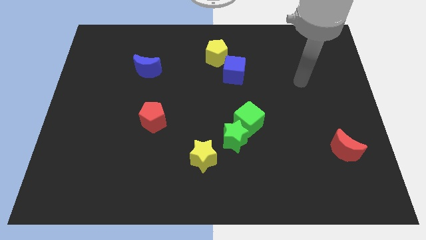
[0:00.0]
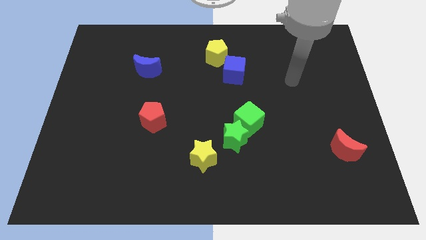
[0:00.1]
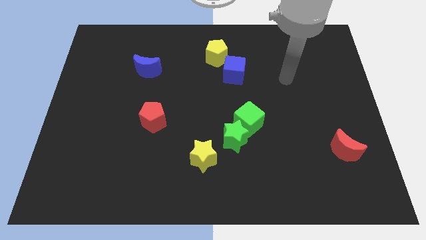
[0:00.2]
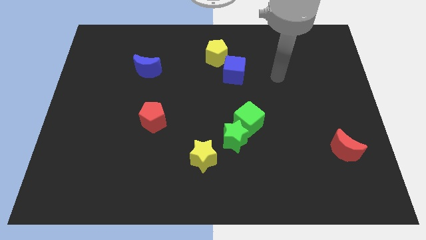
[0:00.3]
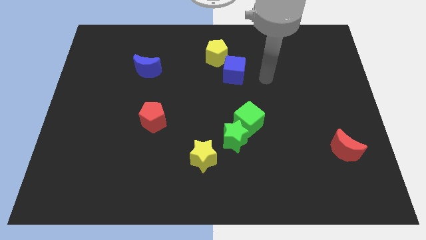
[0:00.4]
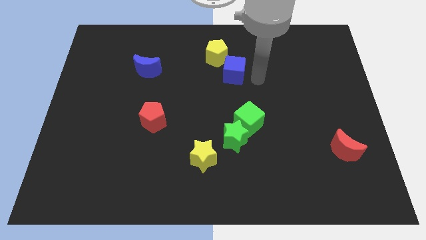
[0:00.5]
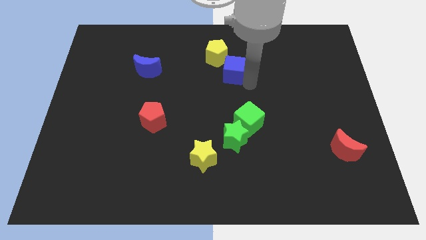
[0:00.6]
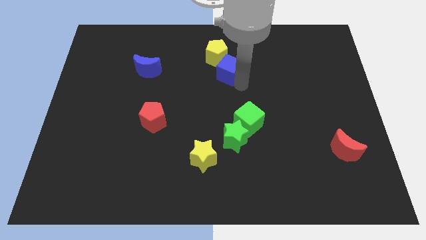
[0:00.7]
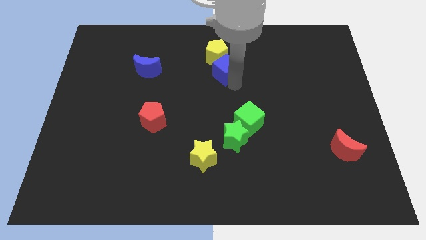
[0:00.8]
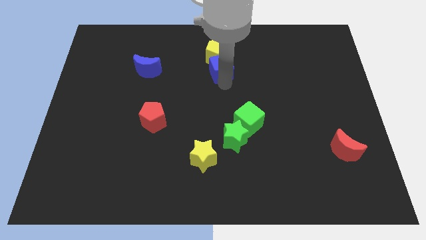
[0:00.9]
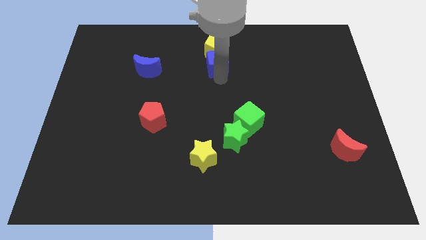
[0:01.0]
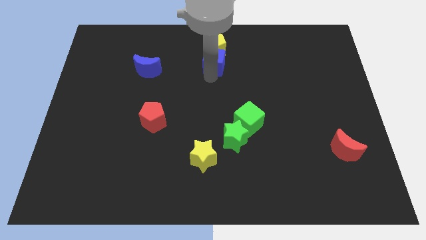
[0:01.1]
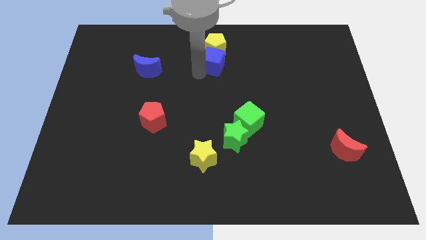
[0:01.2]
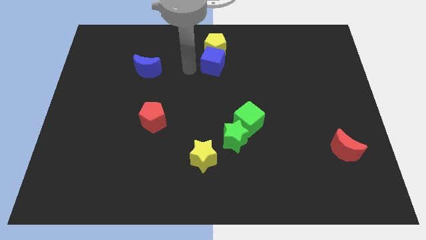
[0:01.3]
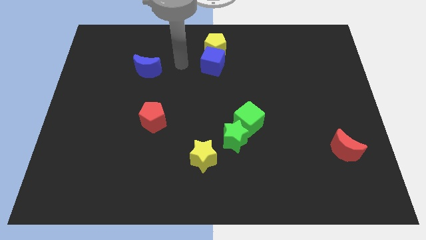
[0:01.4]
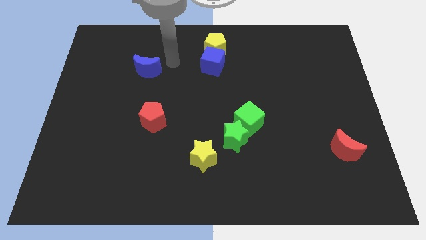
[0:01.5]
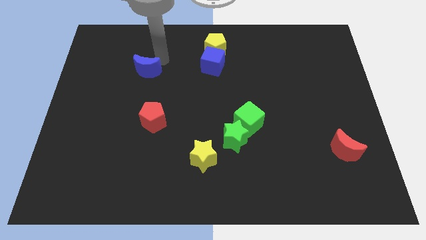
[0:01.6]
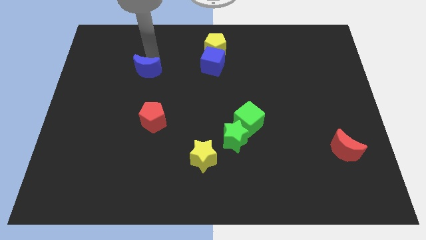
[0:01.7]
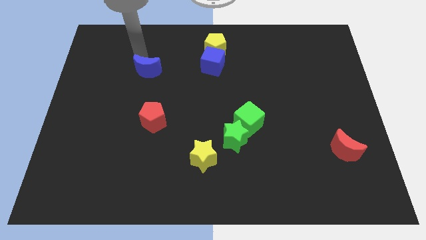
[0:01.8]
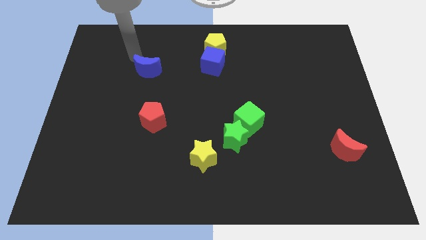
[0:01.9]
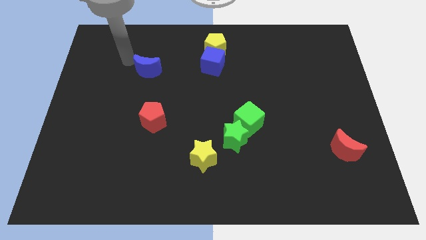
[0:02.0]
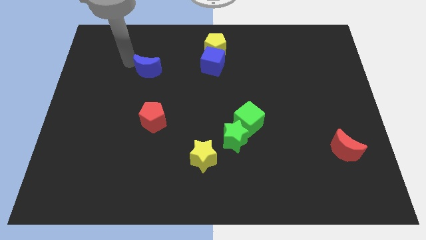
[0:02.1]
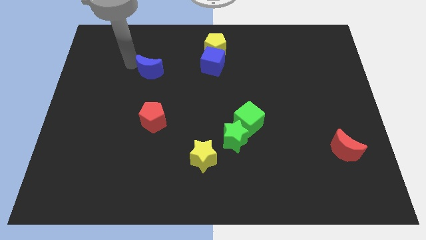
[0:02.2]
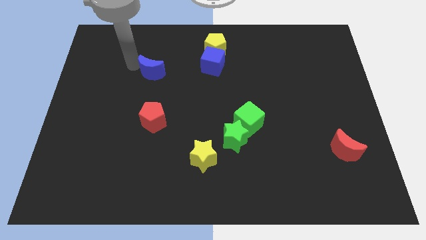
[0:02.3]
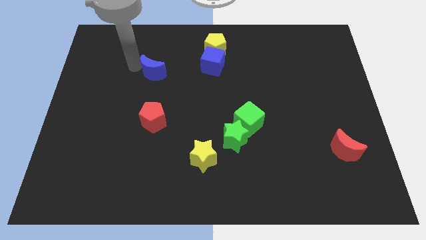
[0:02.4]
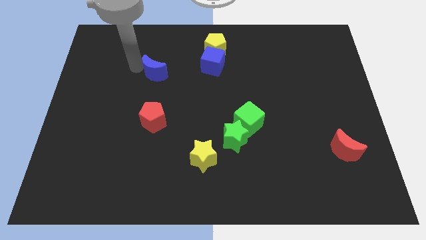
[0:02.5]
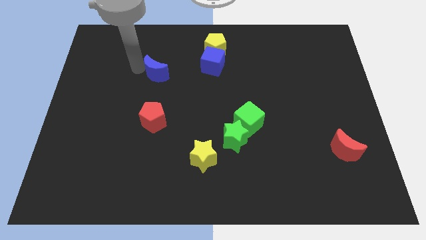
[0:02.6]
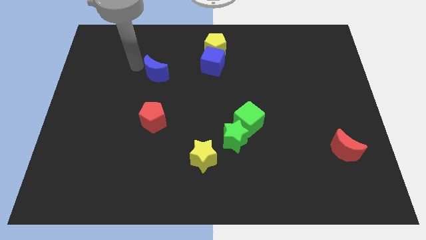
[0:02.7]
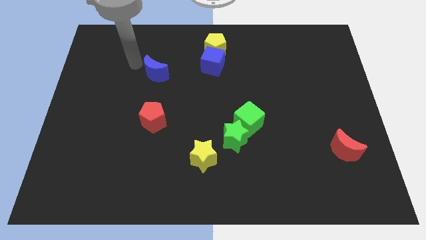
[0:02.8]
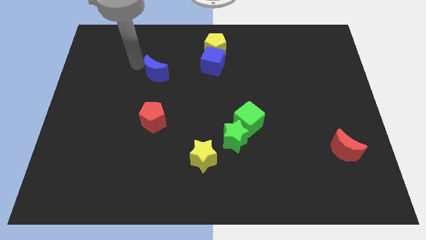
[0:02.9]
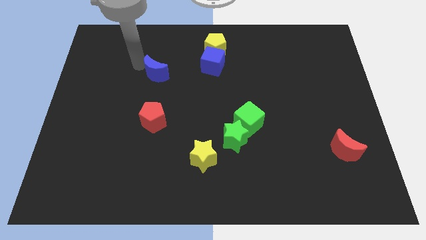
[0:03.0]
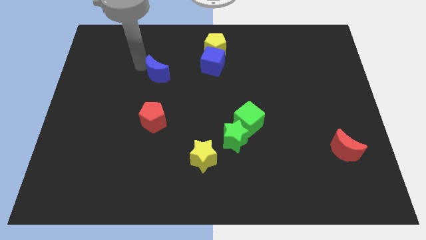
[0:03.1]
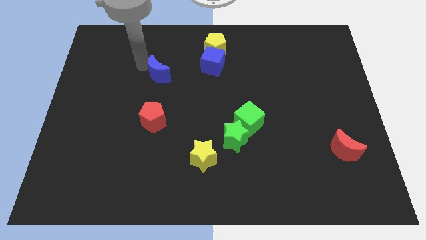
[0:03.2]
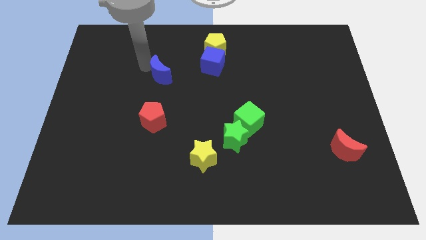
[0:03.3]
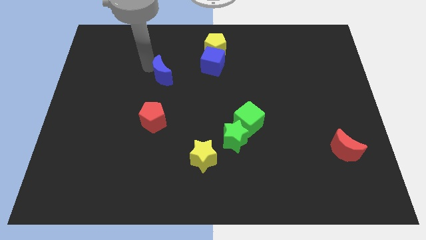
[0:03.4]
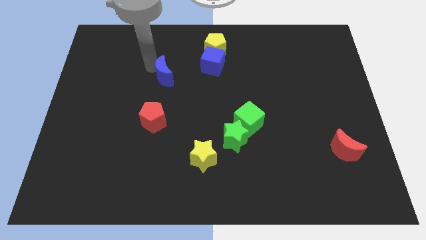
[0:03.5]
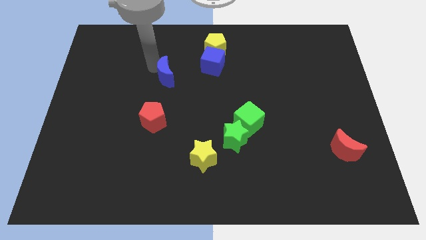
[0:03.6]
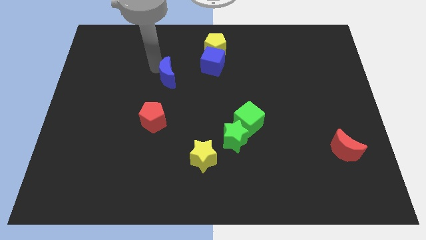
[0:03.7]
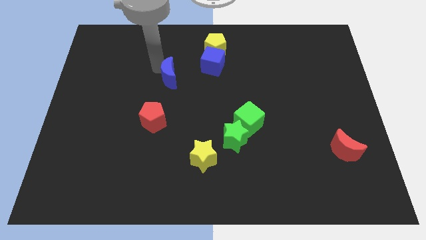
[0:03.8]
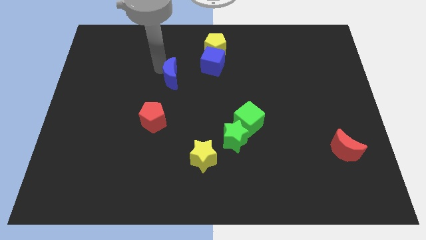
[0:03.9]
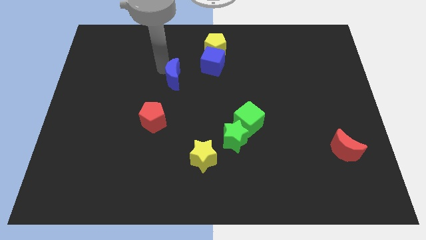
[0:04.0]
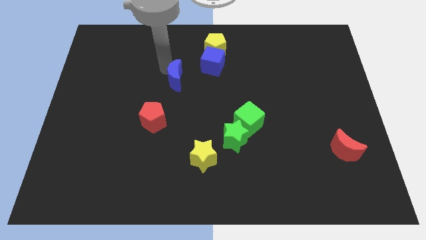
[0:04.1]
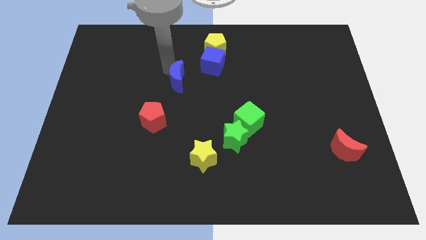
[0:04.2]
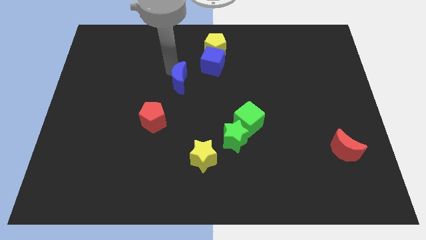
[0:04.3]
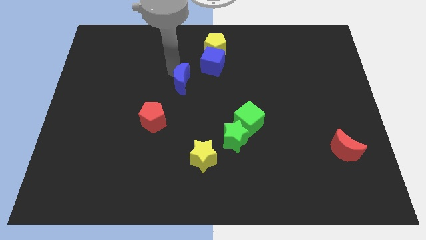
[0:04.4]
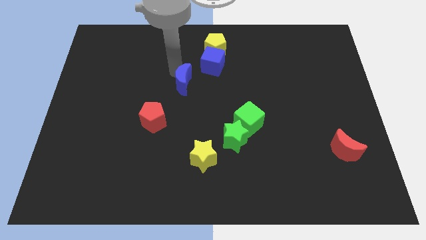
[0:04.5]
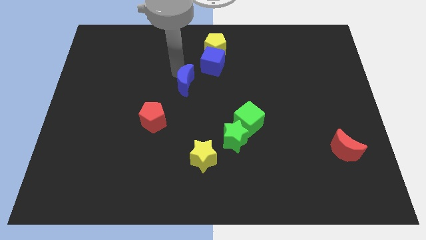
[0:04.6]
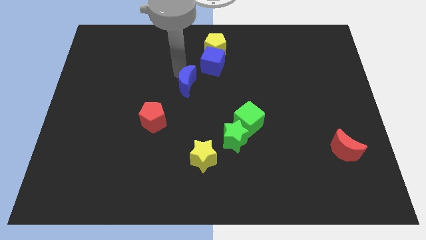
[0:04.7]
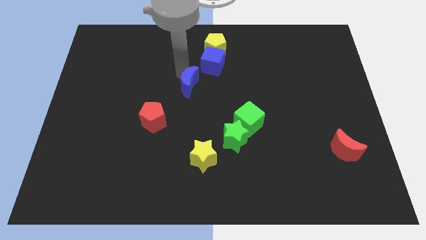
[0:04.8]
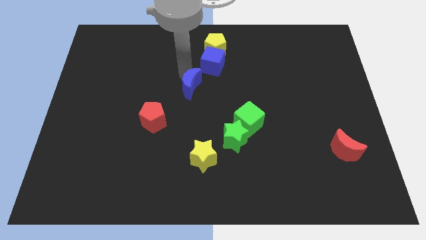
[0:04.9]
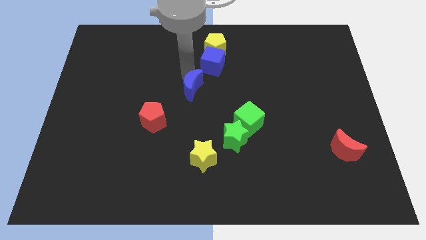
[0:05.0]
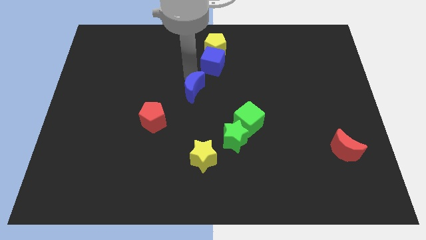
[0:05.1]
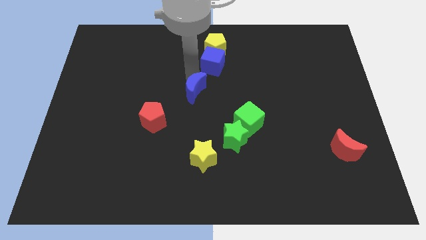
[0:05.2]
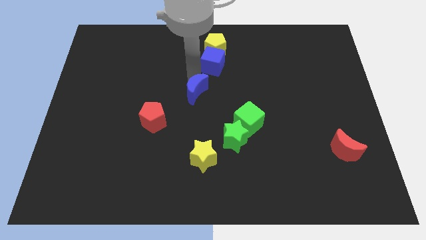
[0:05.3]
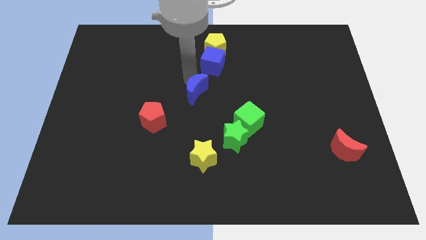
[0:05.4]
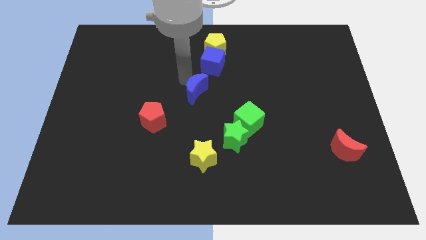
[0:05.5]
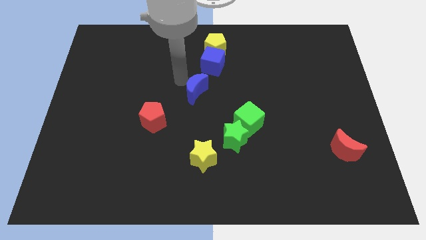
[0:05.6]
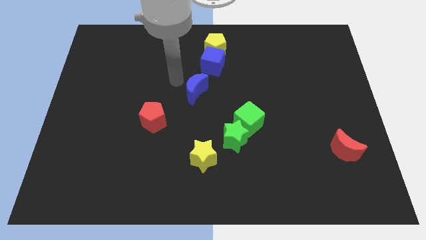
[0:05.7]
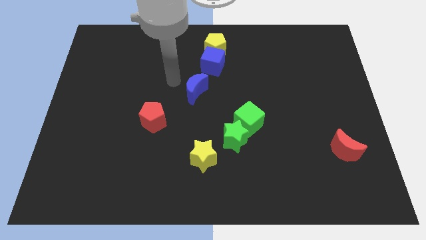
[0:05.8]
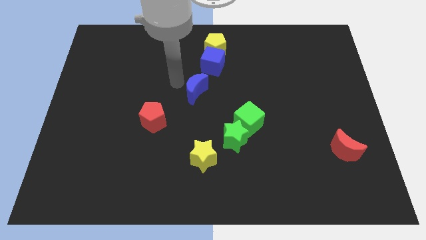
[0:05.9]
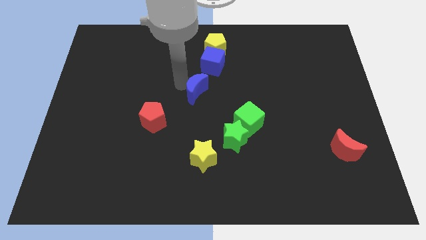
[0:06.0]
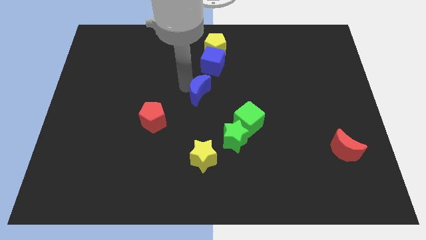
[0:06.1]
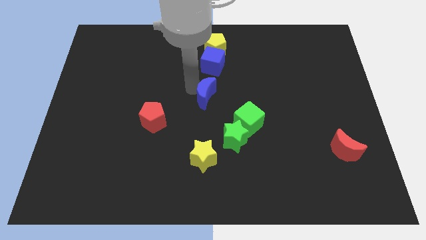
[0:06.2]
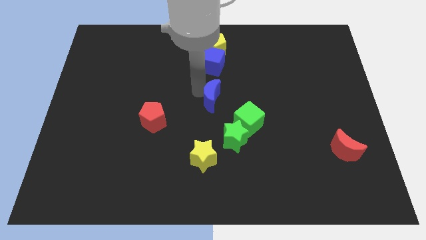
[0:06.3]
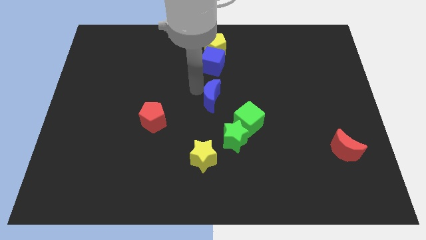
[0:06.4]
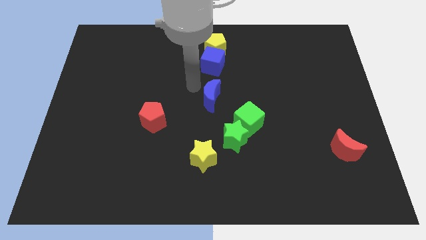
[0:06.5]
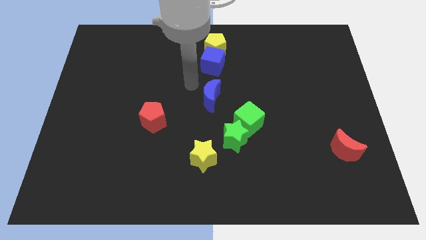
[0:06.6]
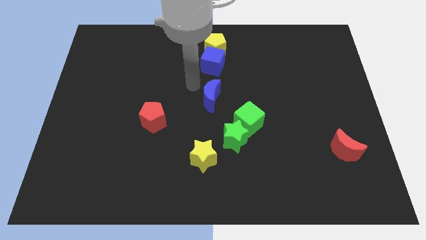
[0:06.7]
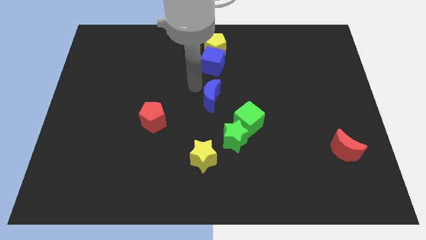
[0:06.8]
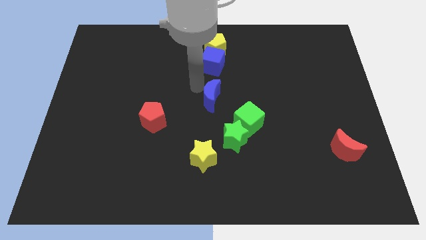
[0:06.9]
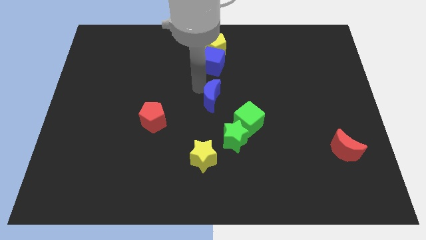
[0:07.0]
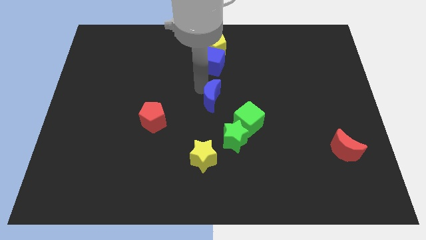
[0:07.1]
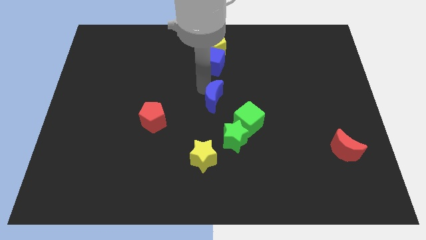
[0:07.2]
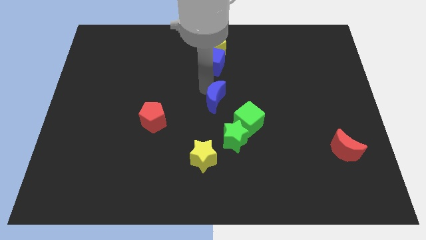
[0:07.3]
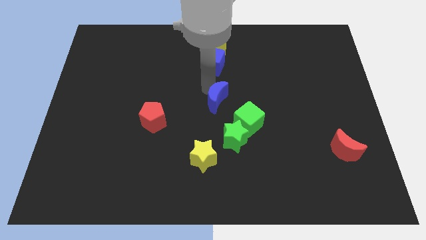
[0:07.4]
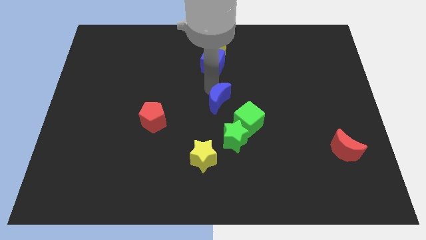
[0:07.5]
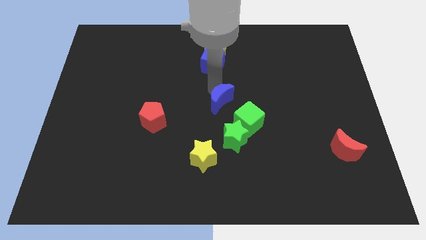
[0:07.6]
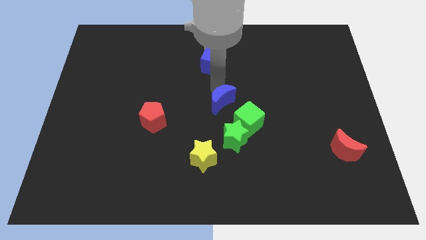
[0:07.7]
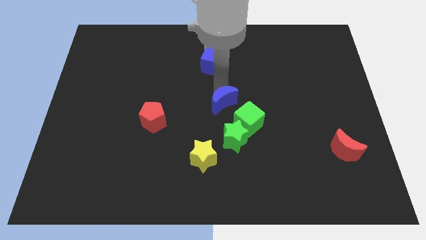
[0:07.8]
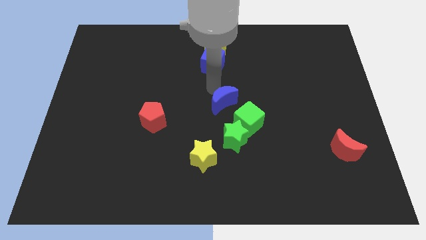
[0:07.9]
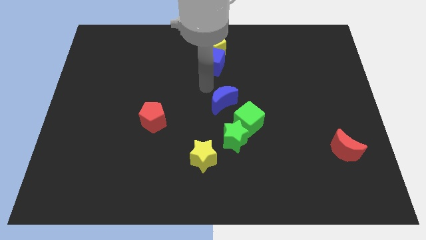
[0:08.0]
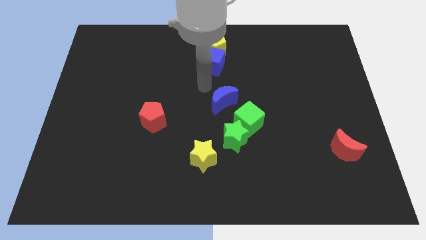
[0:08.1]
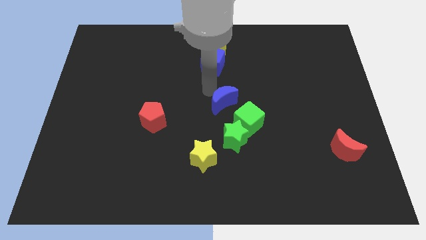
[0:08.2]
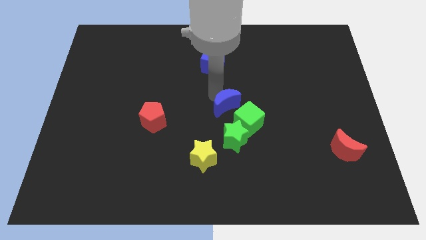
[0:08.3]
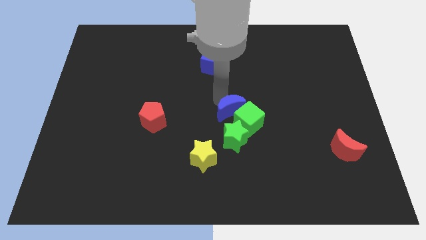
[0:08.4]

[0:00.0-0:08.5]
put the blue moon to the green cube
